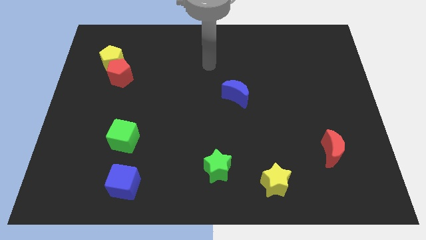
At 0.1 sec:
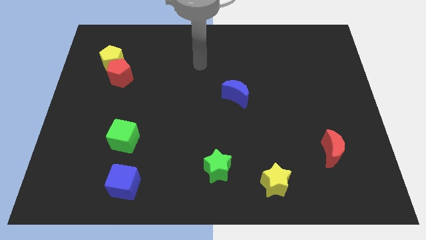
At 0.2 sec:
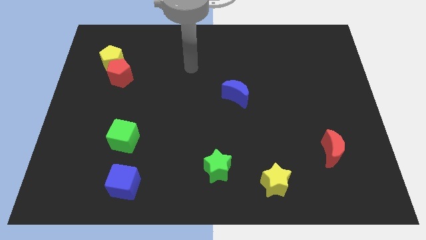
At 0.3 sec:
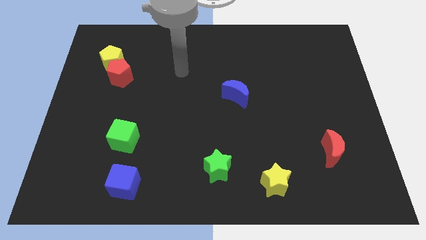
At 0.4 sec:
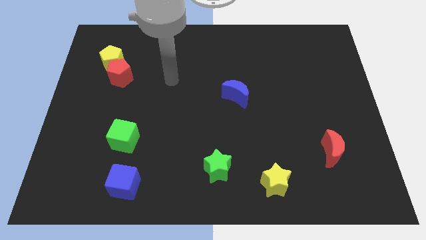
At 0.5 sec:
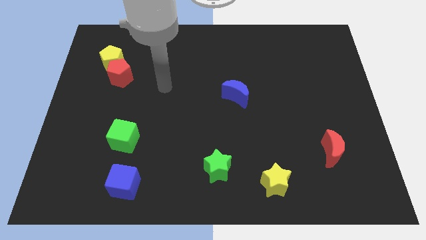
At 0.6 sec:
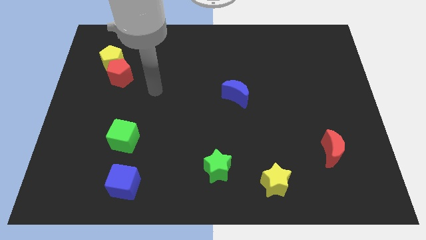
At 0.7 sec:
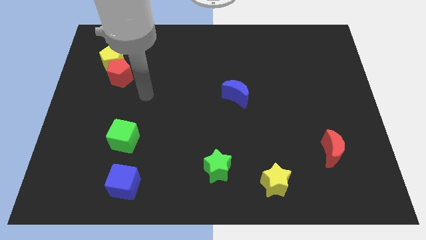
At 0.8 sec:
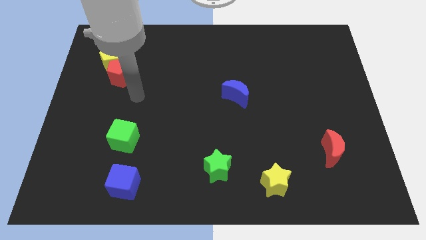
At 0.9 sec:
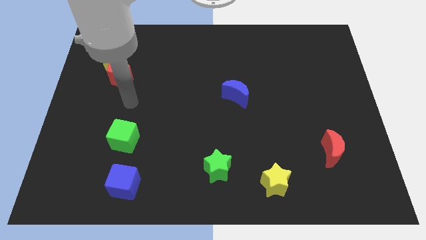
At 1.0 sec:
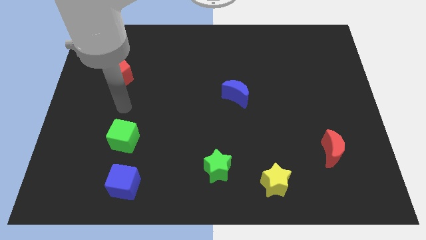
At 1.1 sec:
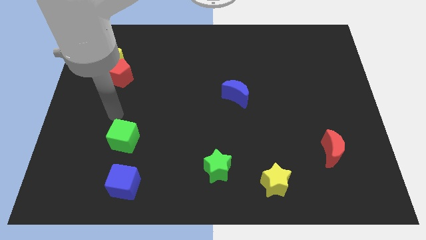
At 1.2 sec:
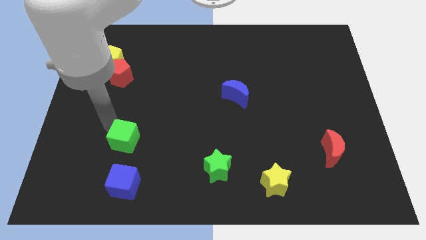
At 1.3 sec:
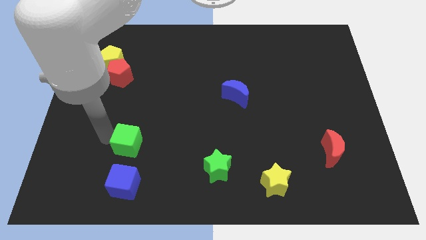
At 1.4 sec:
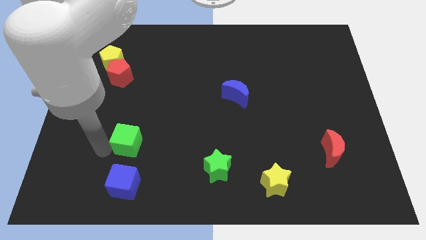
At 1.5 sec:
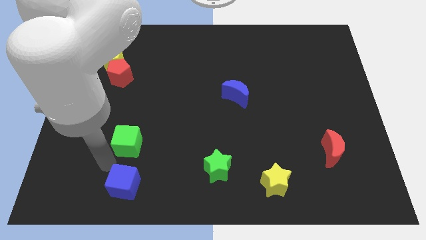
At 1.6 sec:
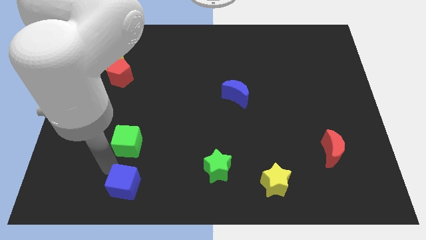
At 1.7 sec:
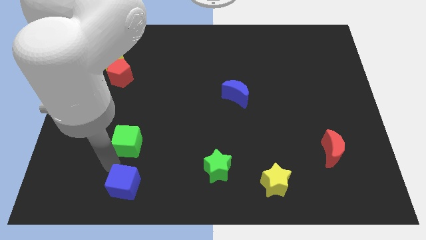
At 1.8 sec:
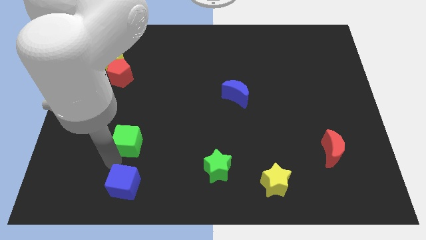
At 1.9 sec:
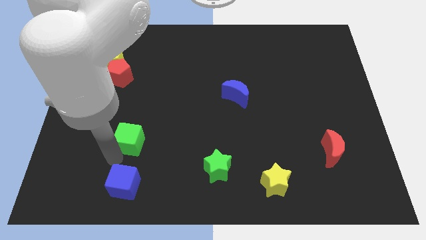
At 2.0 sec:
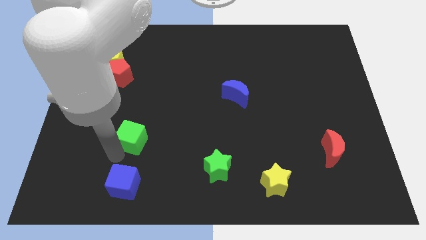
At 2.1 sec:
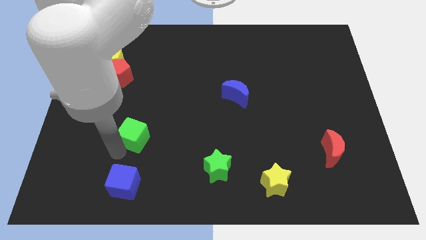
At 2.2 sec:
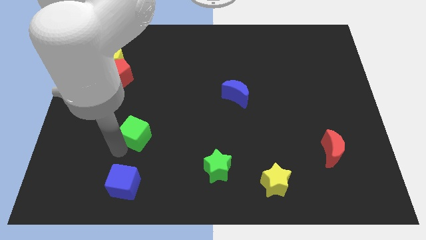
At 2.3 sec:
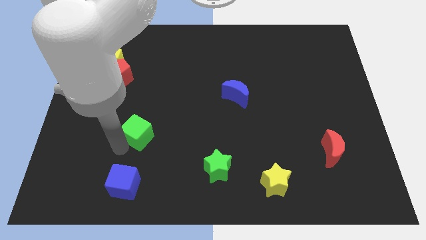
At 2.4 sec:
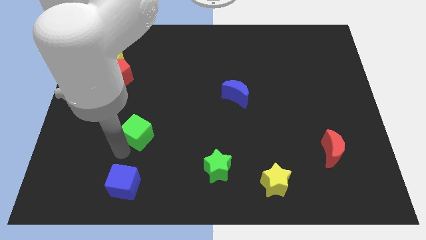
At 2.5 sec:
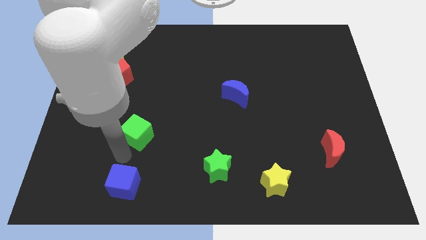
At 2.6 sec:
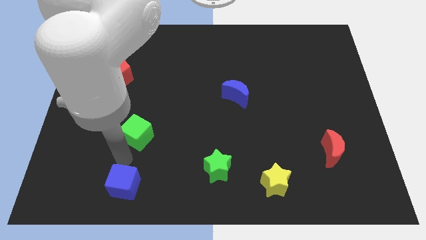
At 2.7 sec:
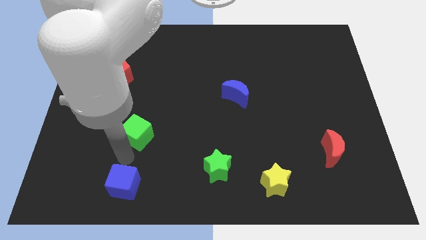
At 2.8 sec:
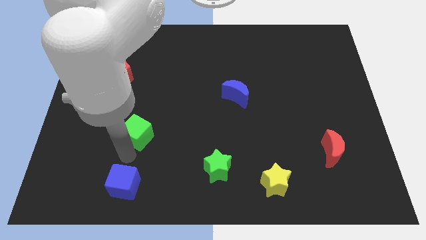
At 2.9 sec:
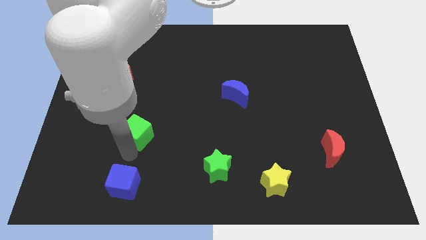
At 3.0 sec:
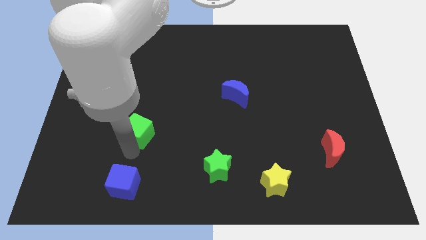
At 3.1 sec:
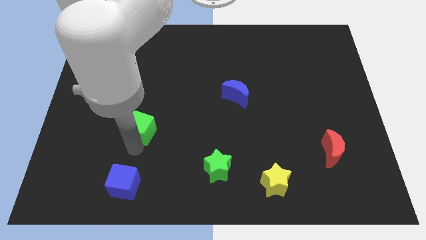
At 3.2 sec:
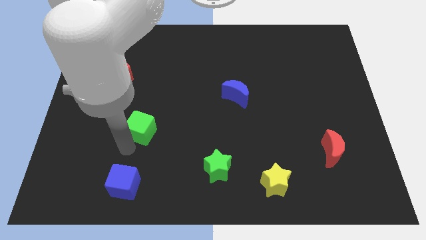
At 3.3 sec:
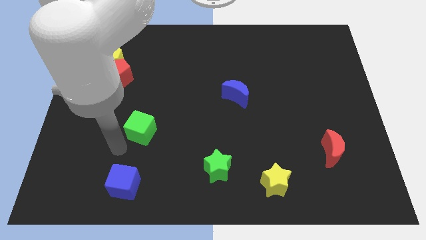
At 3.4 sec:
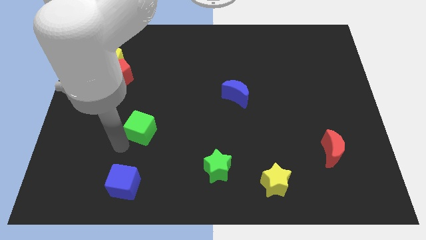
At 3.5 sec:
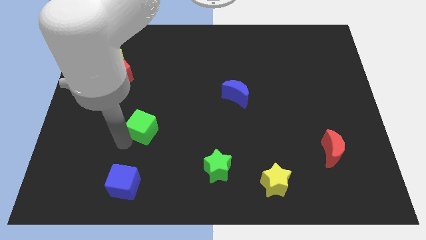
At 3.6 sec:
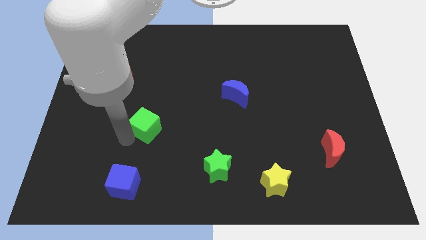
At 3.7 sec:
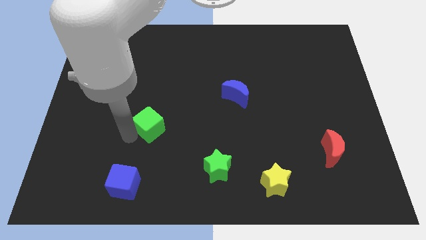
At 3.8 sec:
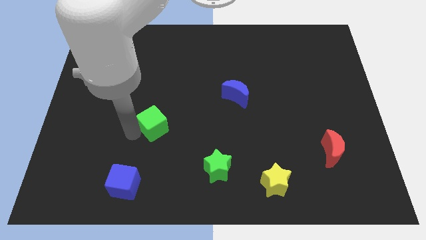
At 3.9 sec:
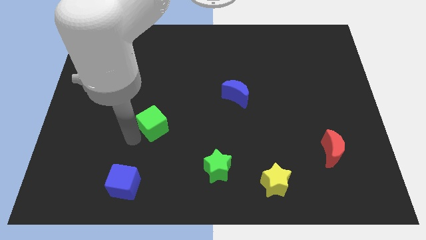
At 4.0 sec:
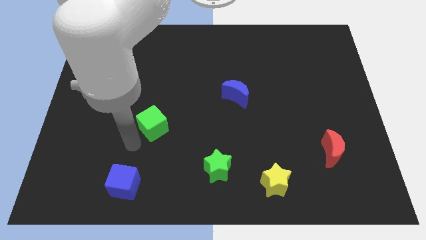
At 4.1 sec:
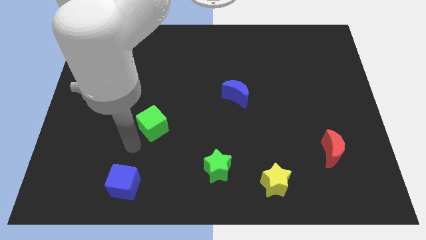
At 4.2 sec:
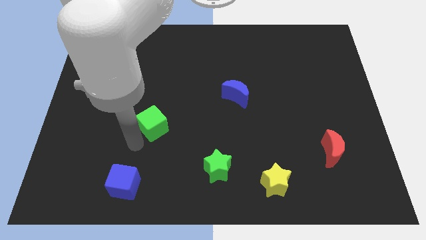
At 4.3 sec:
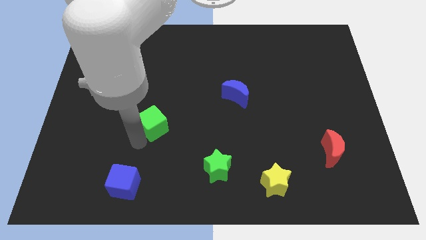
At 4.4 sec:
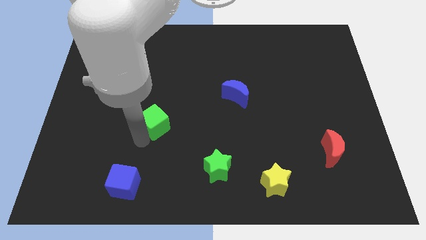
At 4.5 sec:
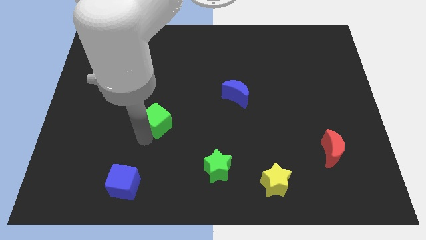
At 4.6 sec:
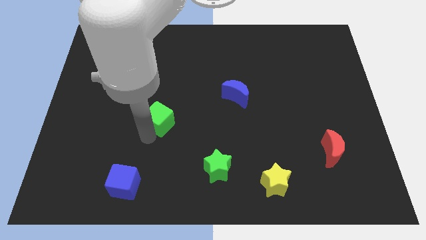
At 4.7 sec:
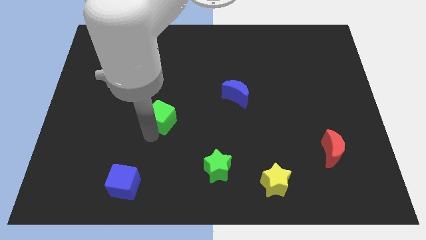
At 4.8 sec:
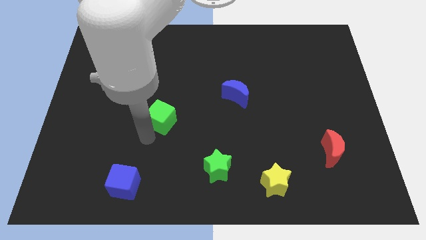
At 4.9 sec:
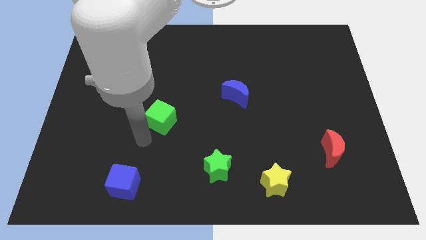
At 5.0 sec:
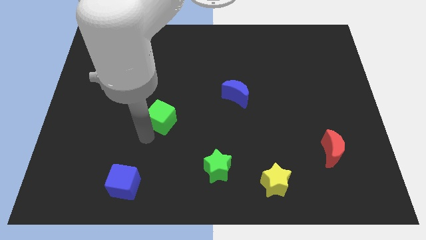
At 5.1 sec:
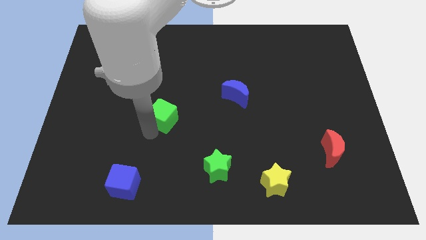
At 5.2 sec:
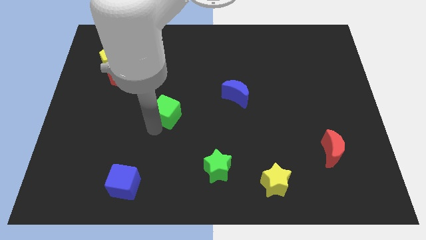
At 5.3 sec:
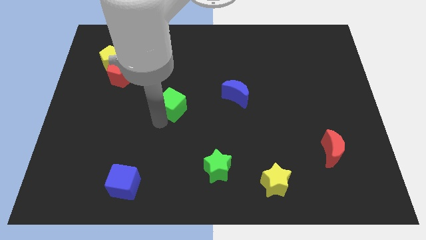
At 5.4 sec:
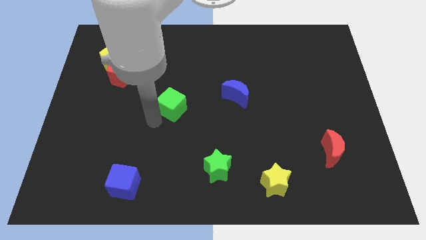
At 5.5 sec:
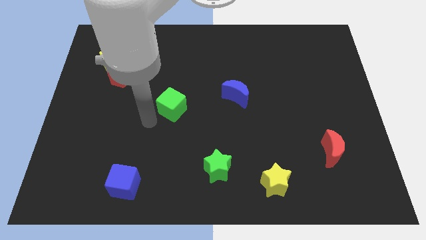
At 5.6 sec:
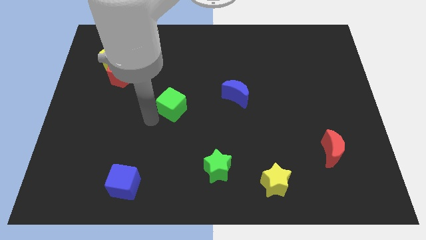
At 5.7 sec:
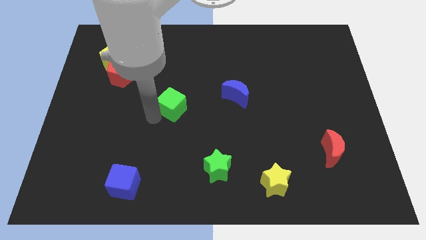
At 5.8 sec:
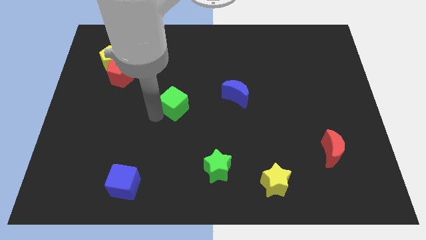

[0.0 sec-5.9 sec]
push the green cube to the left of the blue moon

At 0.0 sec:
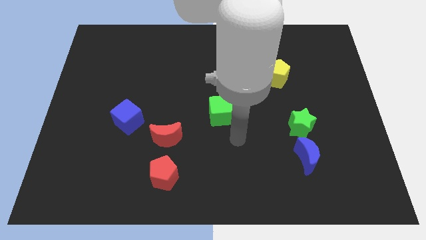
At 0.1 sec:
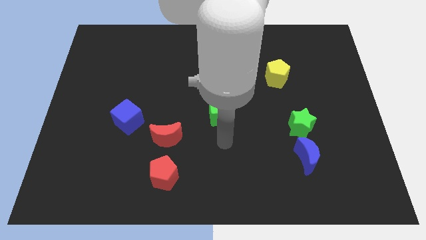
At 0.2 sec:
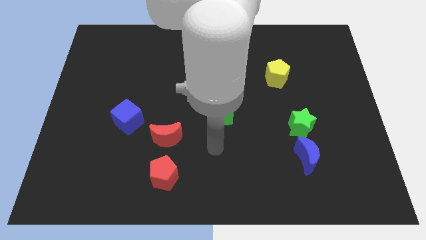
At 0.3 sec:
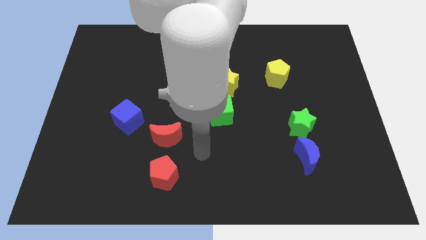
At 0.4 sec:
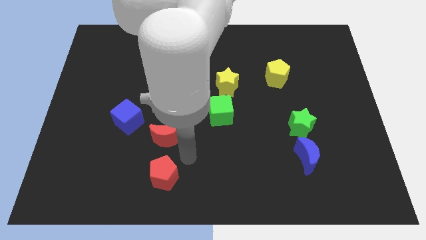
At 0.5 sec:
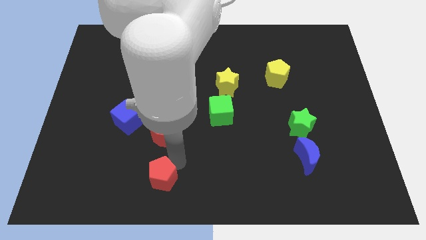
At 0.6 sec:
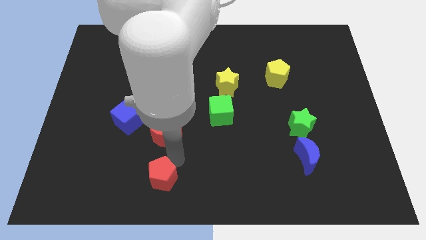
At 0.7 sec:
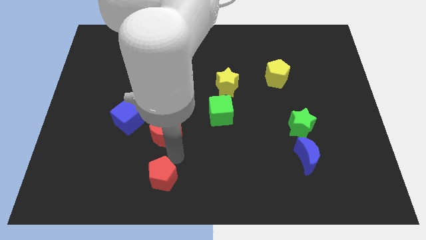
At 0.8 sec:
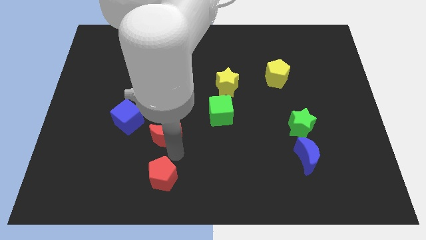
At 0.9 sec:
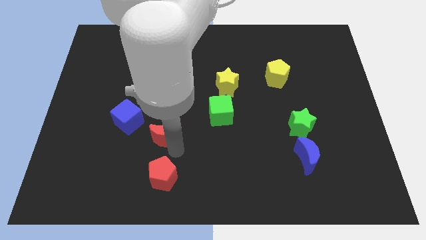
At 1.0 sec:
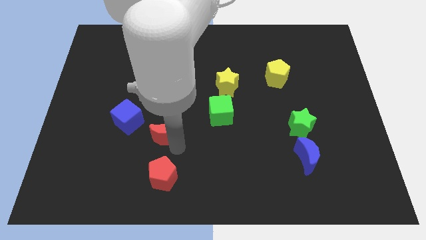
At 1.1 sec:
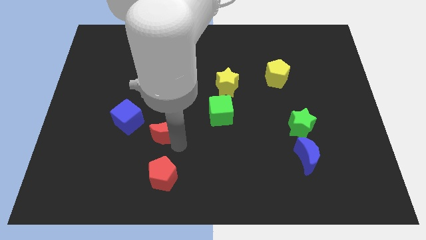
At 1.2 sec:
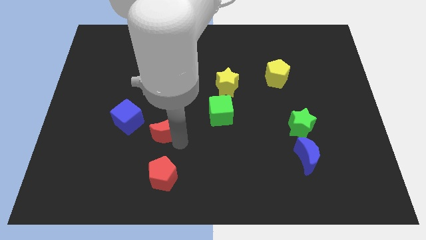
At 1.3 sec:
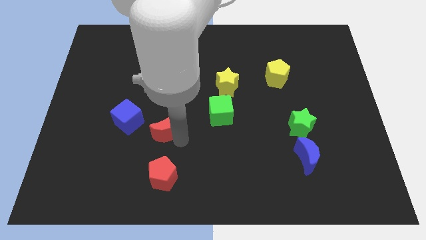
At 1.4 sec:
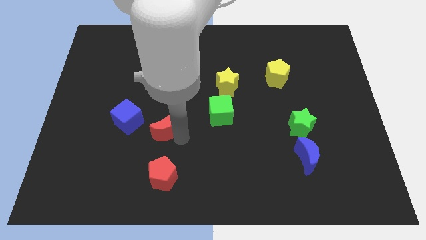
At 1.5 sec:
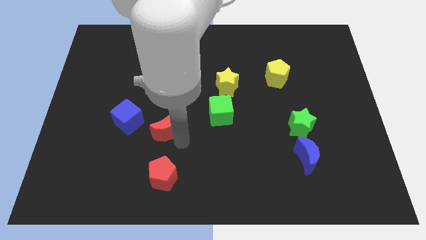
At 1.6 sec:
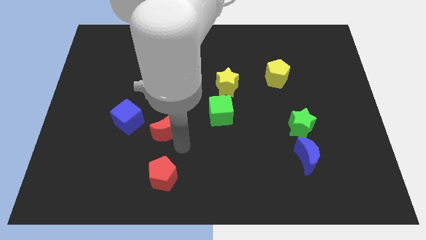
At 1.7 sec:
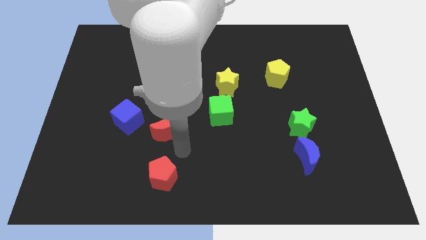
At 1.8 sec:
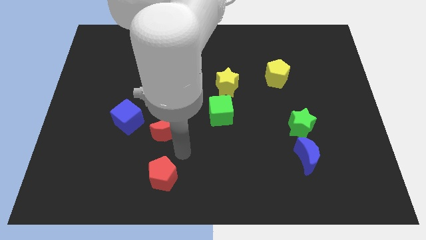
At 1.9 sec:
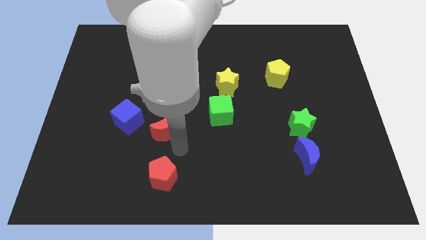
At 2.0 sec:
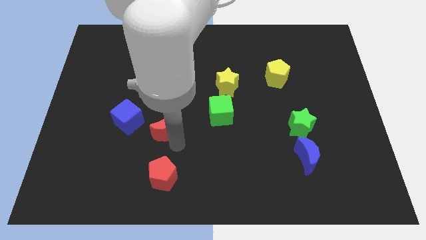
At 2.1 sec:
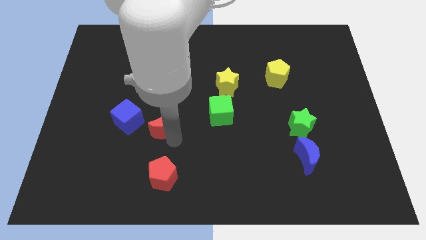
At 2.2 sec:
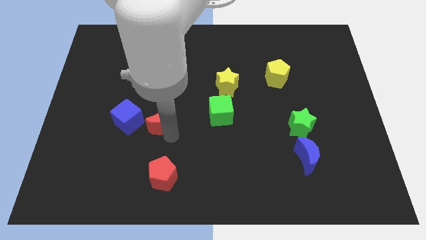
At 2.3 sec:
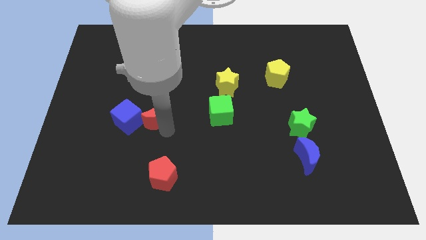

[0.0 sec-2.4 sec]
move the red moon to the top right side of the blue cube
